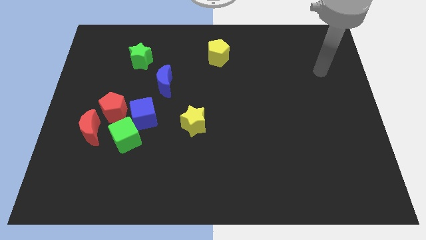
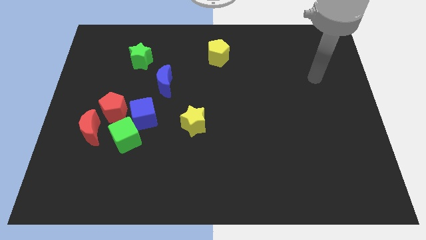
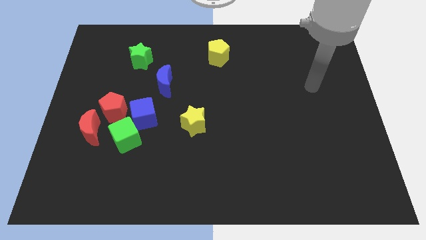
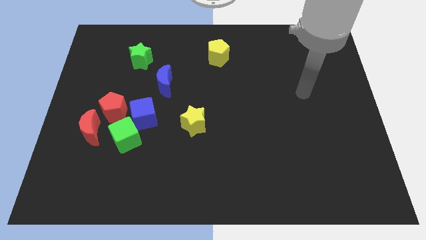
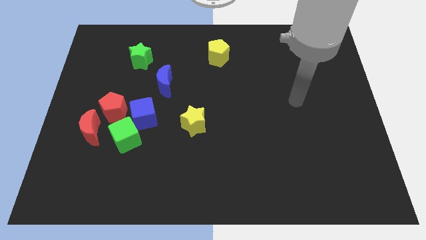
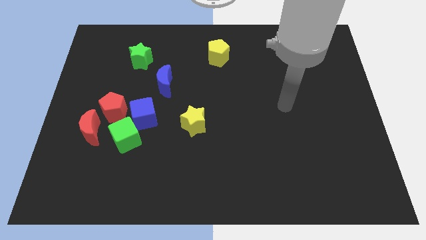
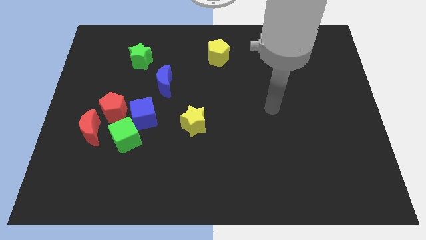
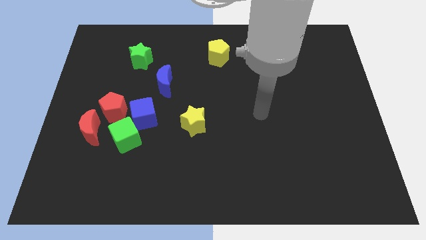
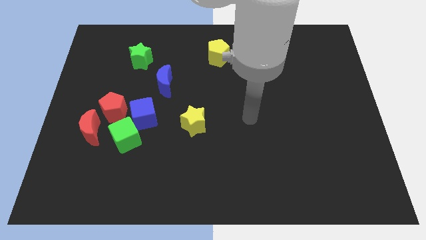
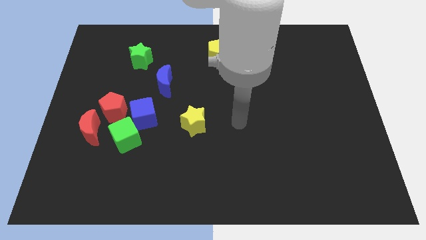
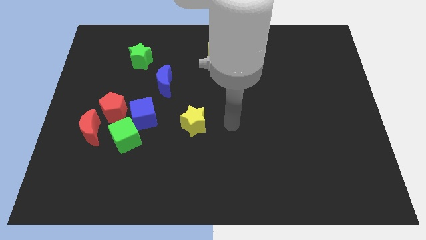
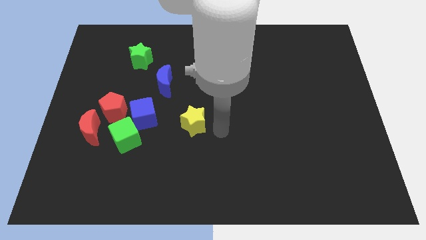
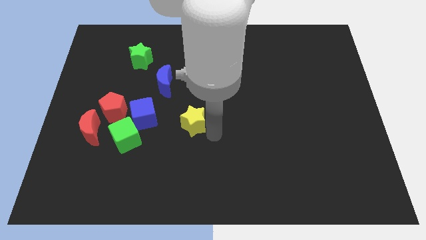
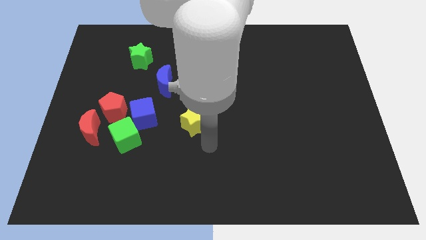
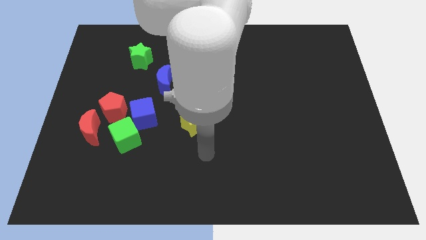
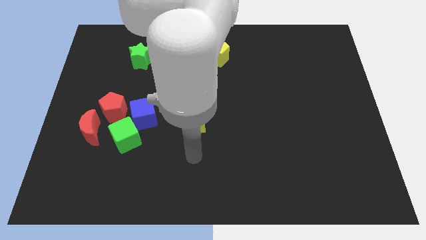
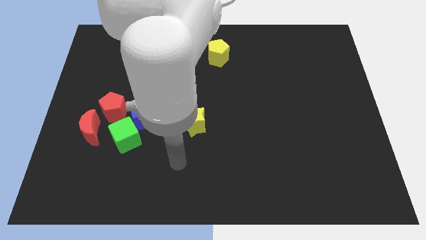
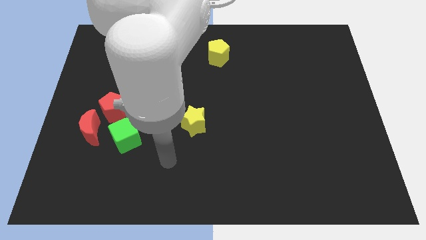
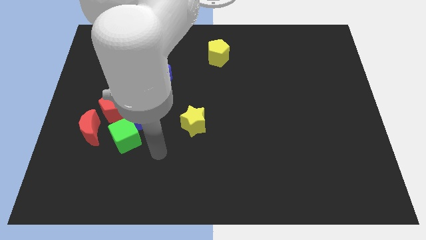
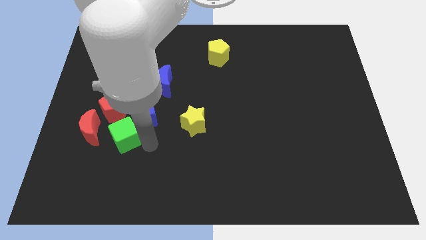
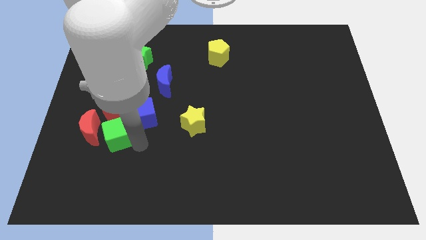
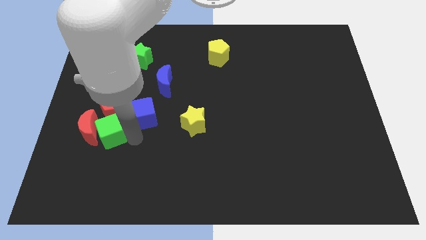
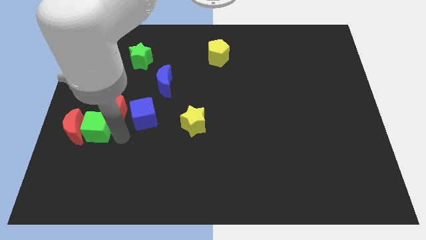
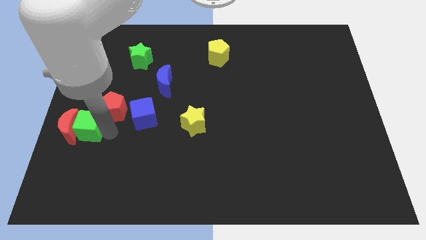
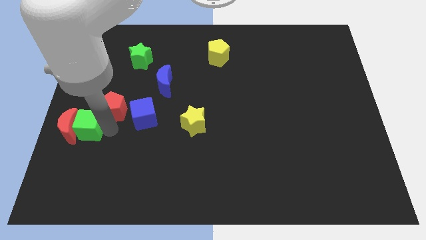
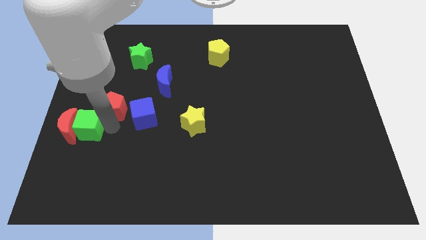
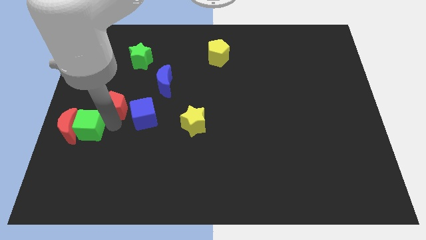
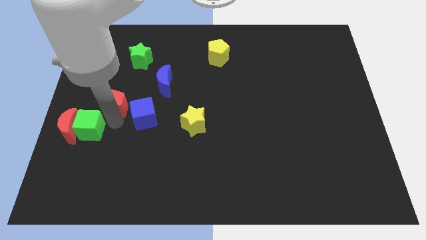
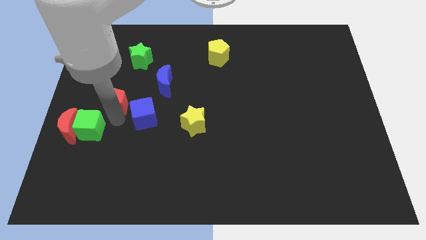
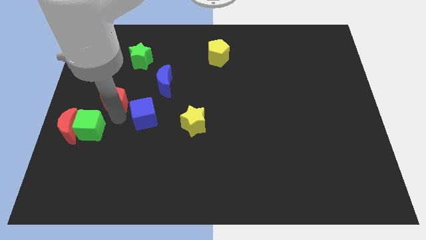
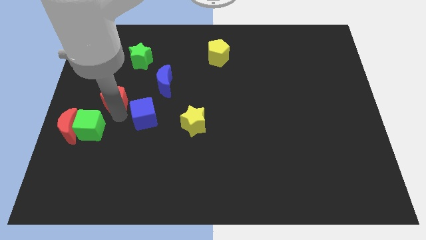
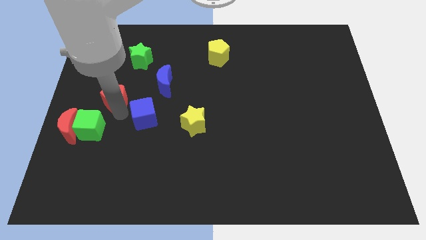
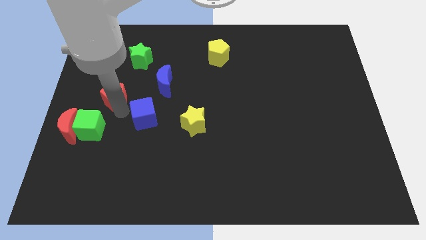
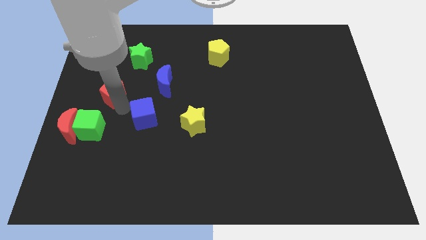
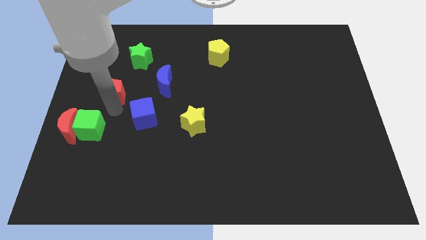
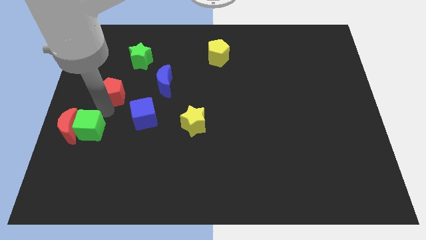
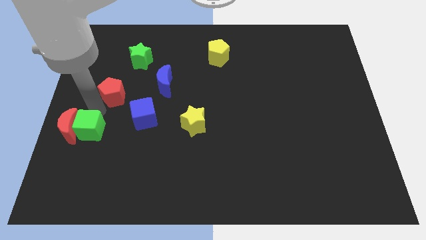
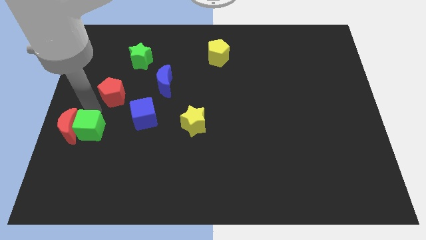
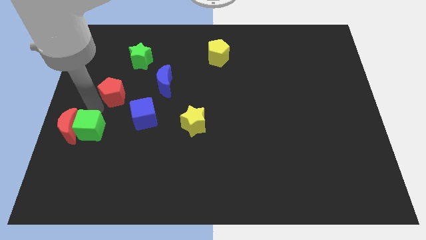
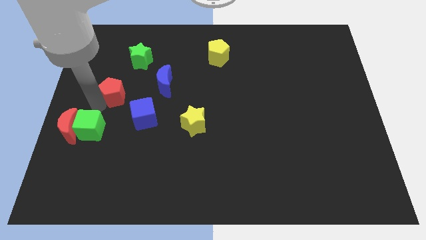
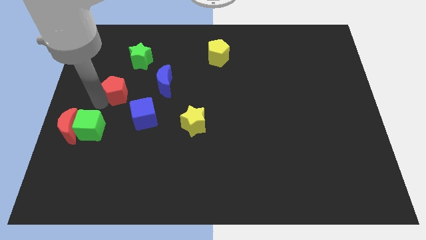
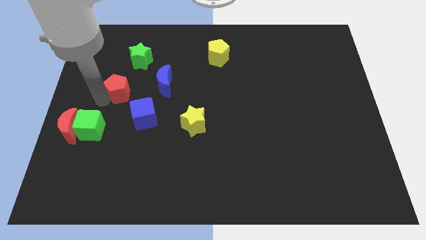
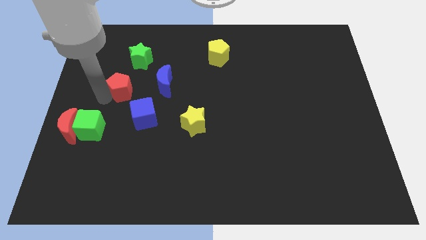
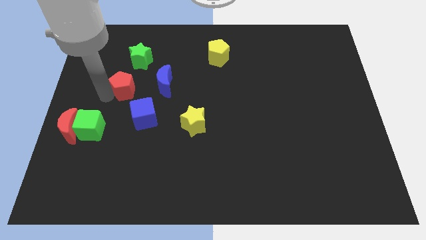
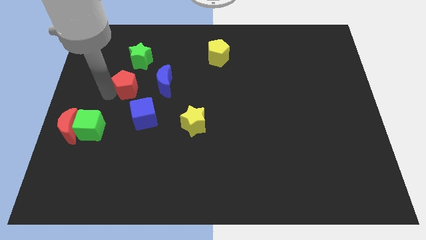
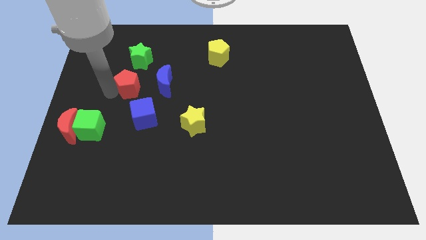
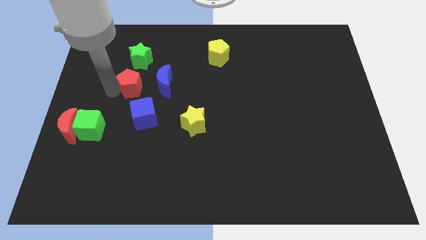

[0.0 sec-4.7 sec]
push the red pentagon diagonally upwards and right slightly

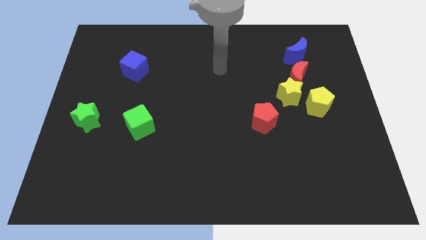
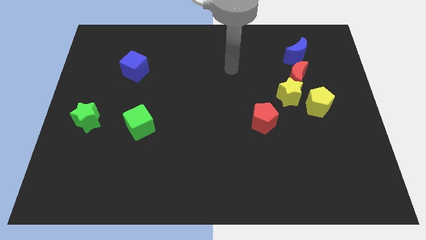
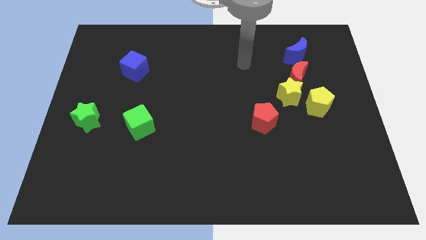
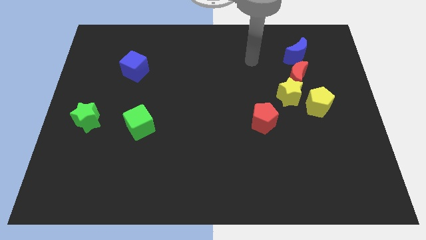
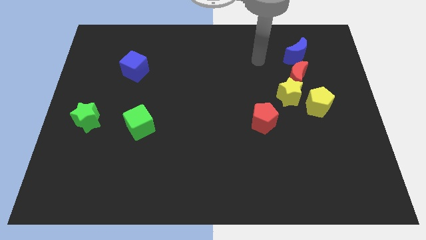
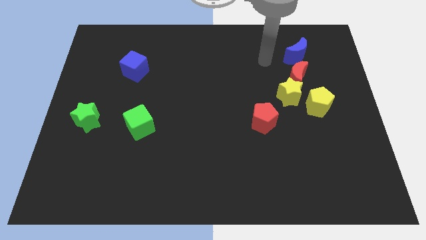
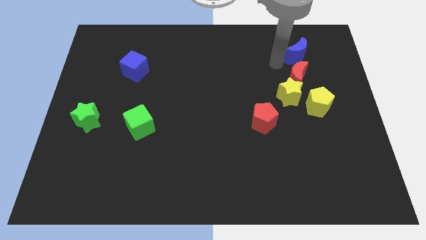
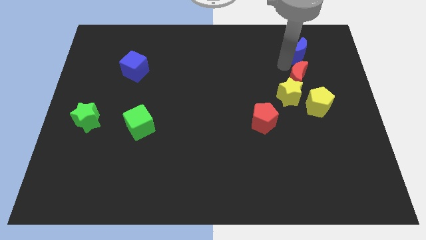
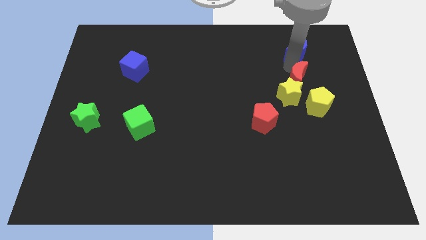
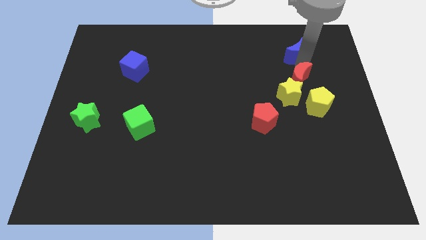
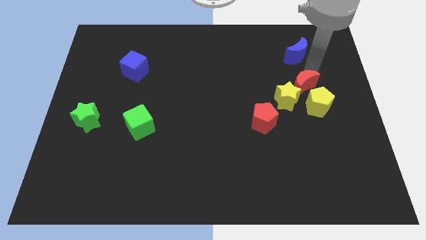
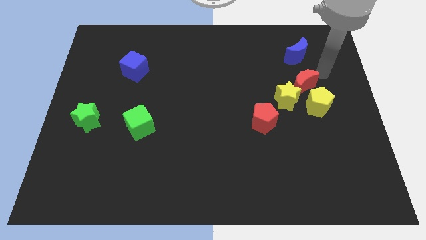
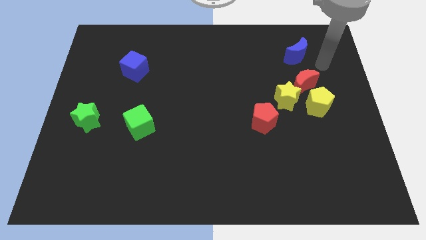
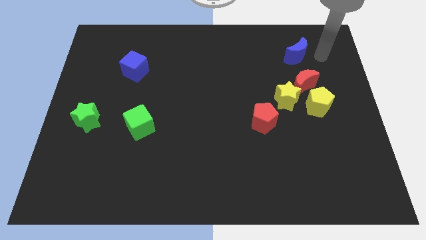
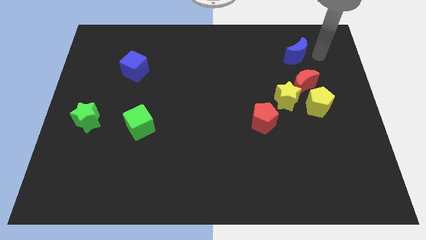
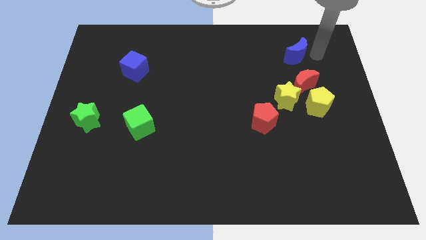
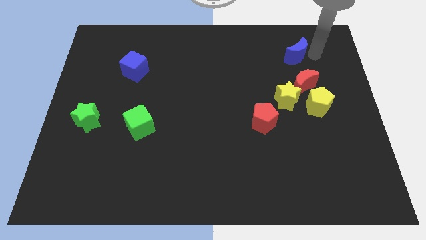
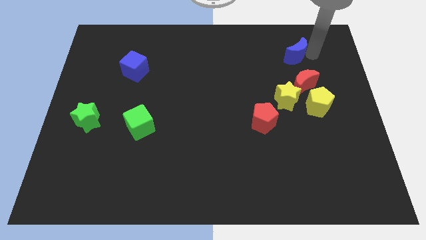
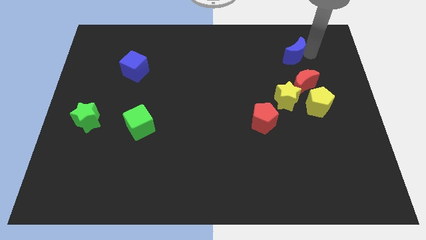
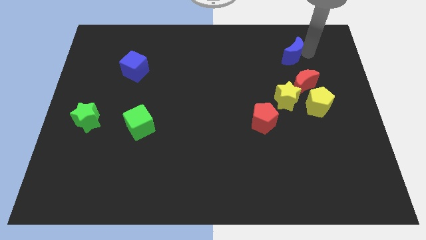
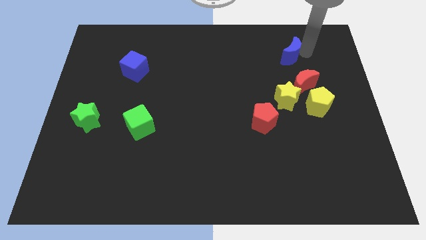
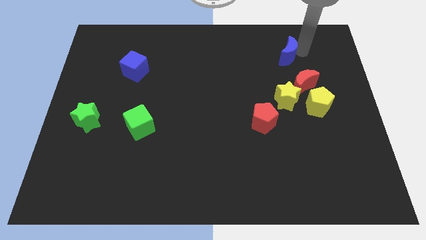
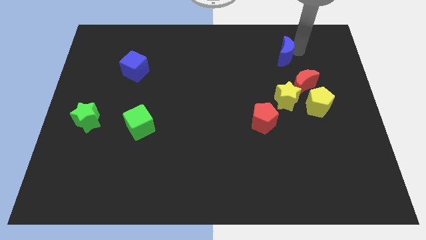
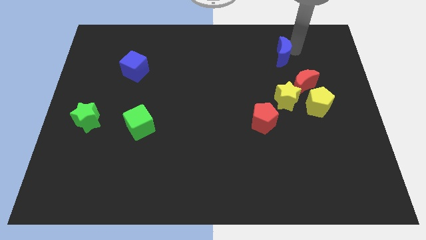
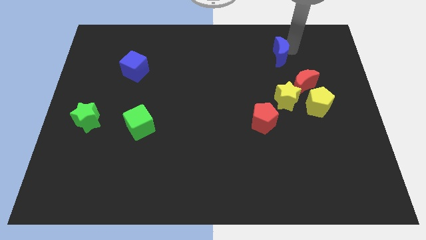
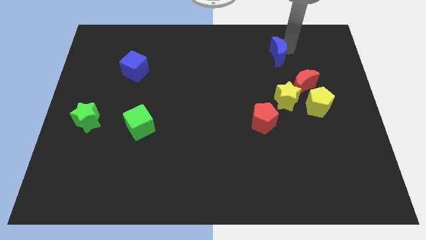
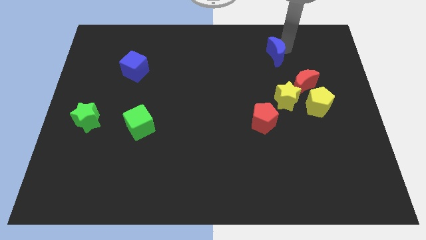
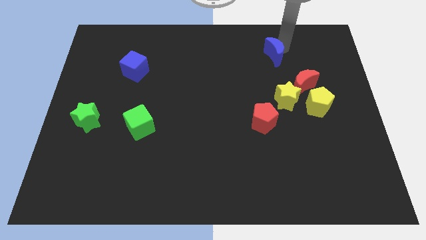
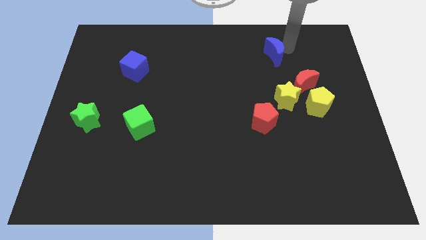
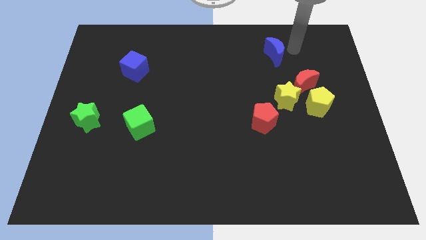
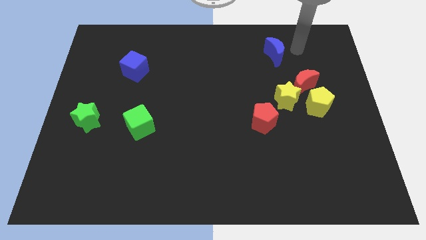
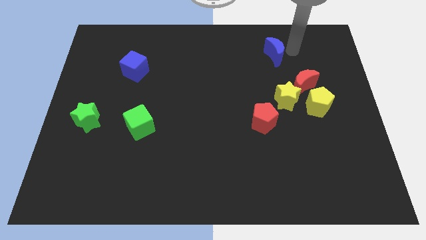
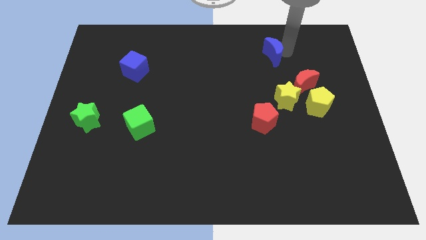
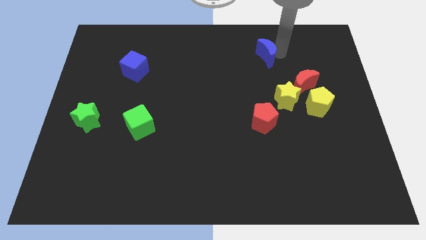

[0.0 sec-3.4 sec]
slide the blue moon to the left a bit

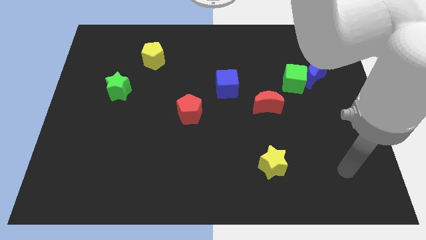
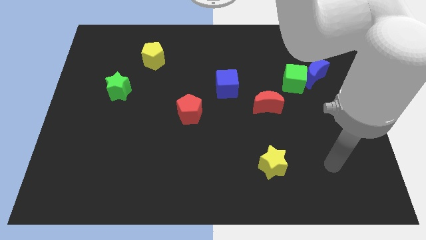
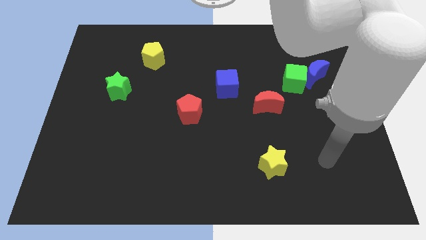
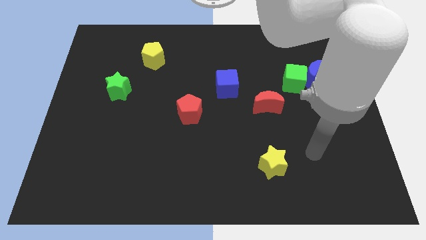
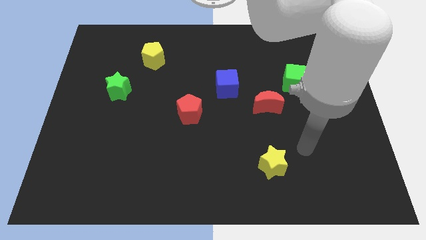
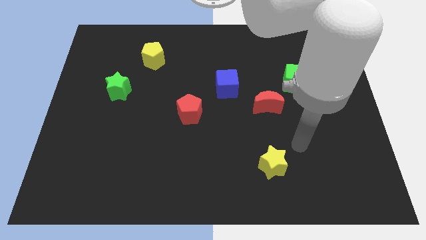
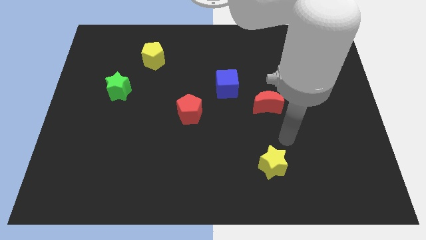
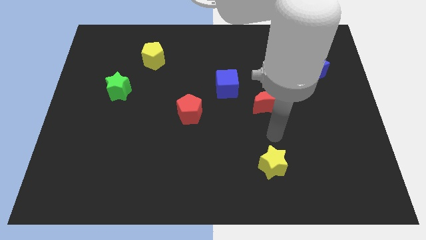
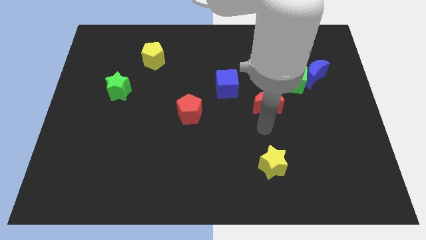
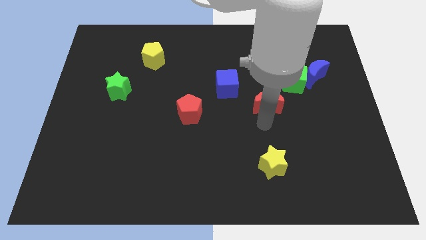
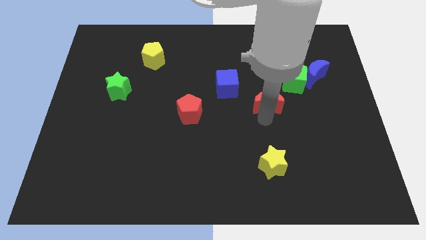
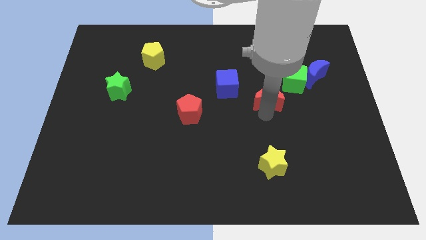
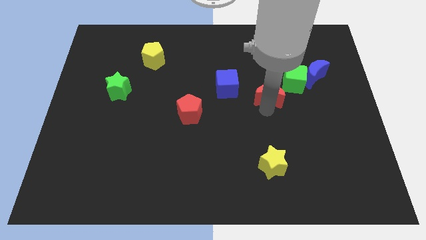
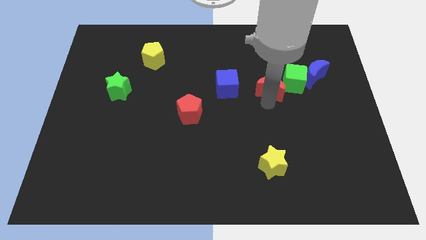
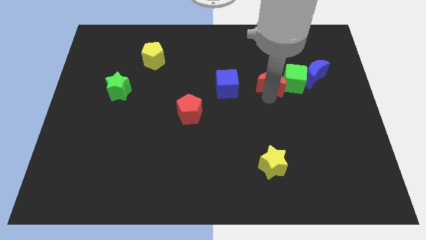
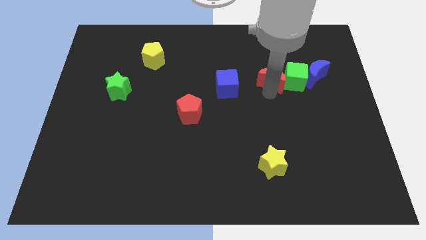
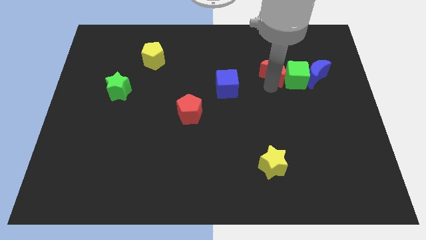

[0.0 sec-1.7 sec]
slightly slide the red moon up and to the right diagonally
